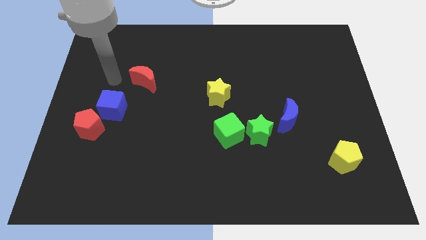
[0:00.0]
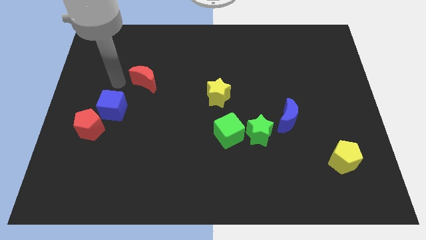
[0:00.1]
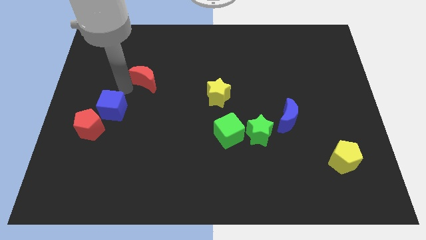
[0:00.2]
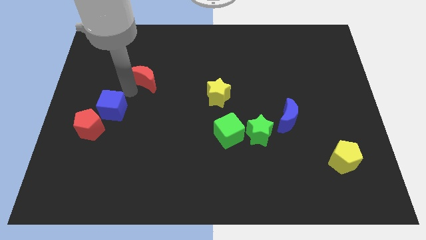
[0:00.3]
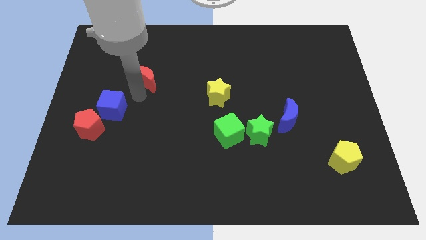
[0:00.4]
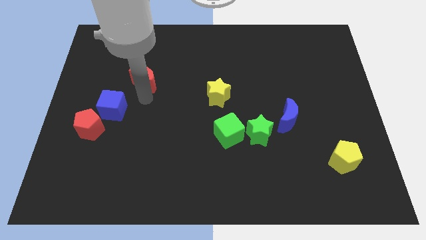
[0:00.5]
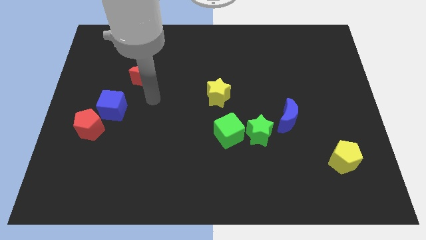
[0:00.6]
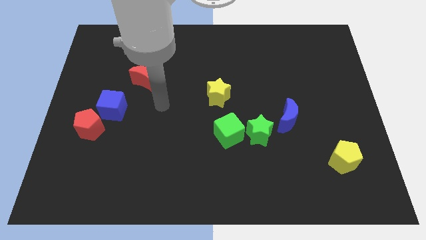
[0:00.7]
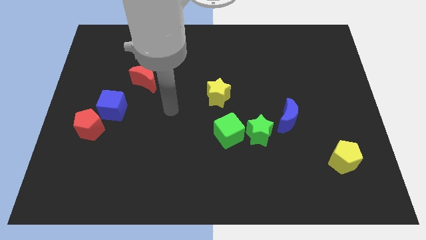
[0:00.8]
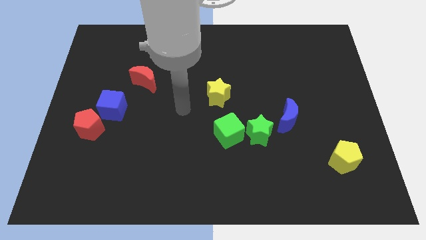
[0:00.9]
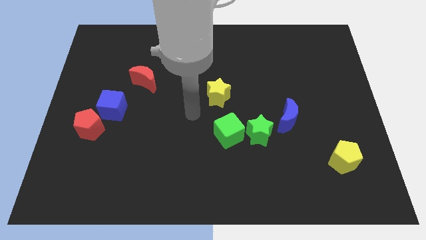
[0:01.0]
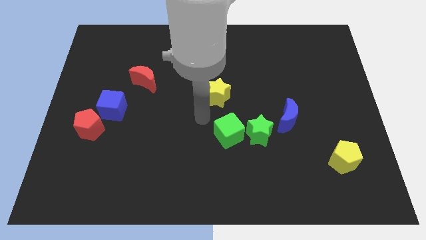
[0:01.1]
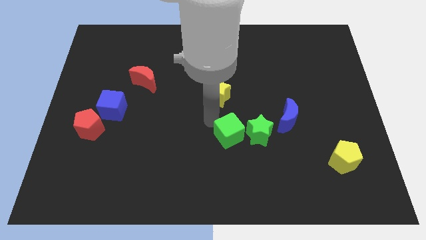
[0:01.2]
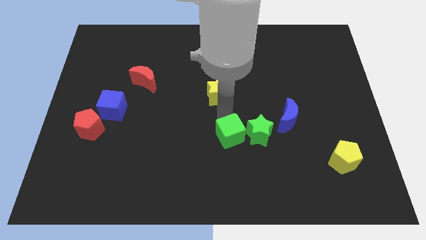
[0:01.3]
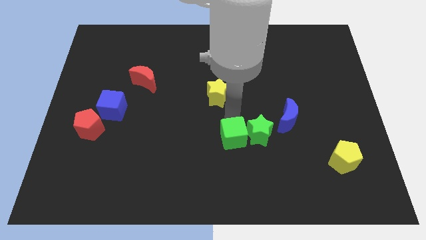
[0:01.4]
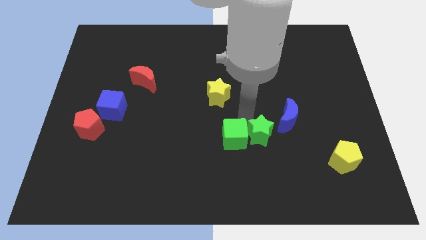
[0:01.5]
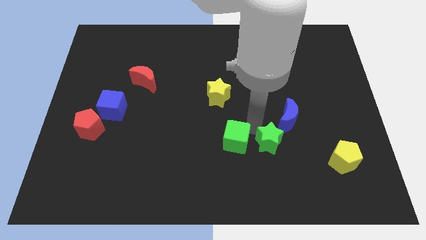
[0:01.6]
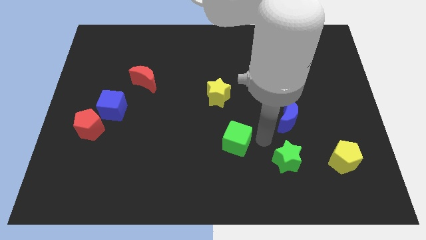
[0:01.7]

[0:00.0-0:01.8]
separate the green cube from the green star

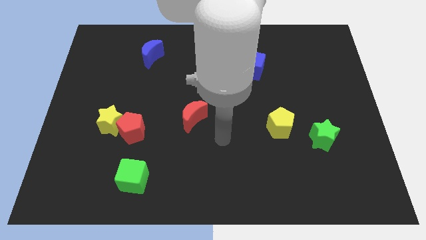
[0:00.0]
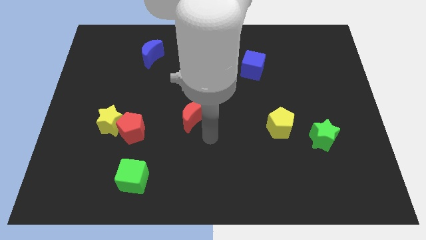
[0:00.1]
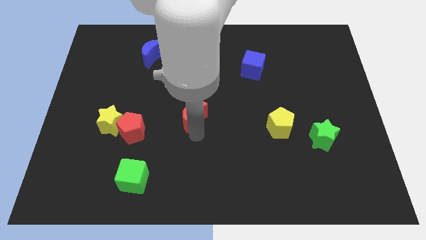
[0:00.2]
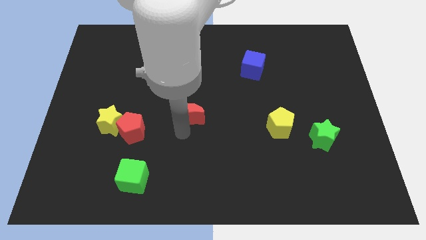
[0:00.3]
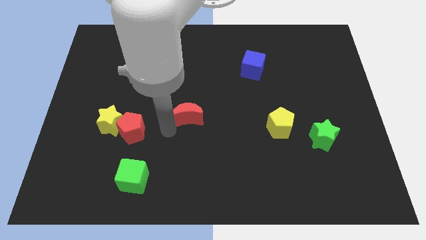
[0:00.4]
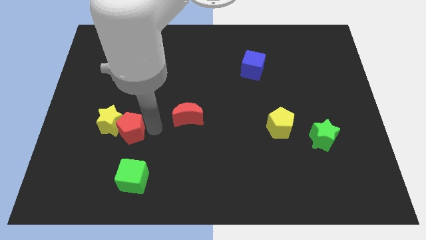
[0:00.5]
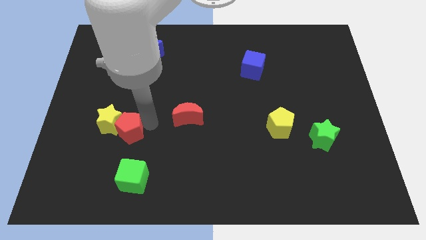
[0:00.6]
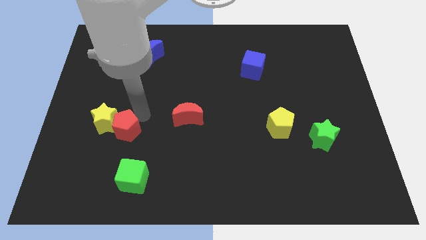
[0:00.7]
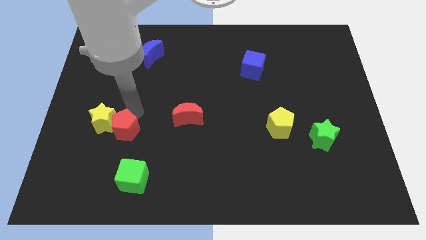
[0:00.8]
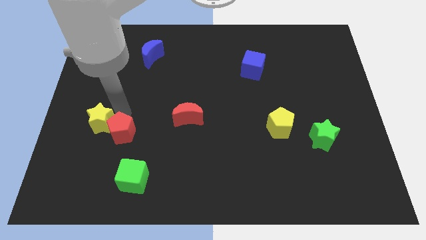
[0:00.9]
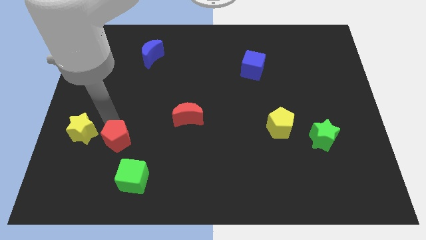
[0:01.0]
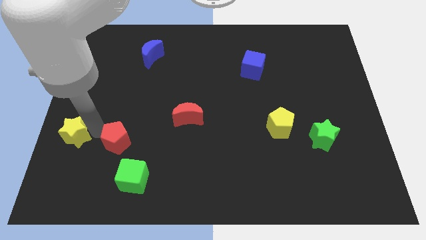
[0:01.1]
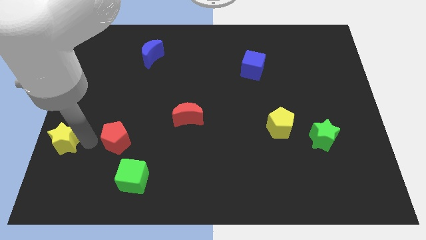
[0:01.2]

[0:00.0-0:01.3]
move the red pentagon away from the yellow star

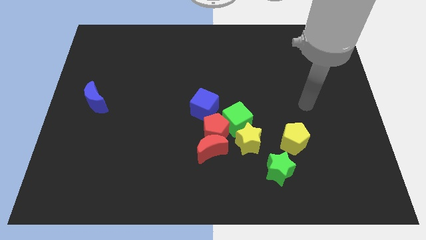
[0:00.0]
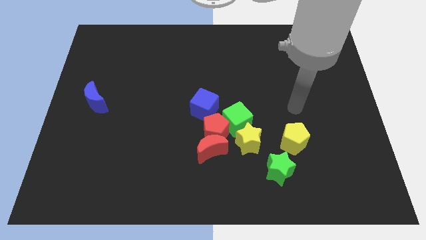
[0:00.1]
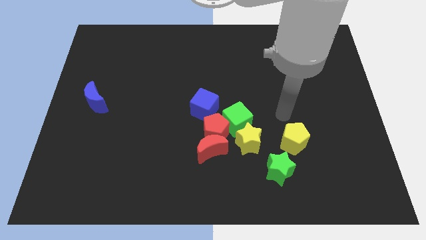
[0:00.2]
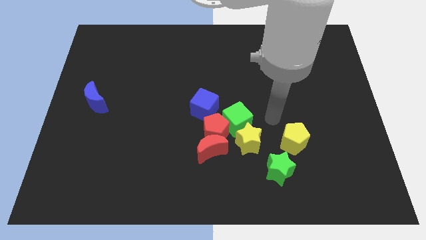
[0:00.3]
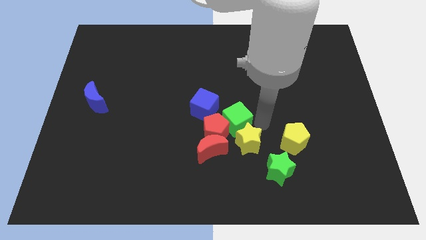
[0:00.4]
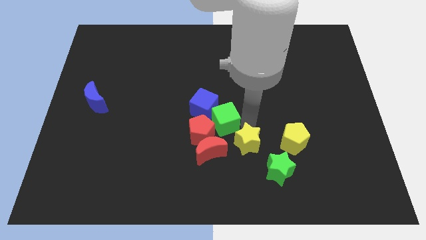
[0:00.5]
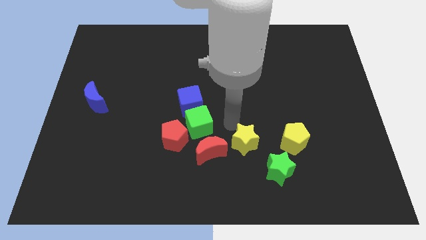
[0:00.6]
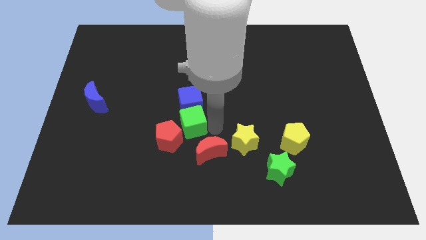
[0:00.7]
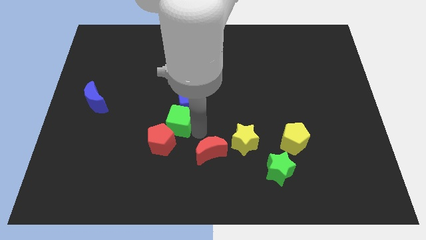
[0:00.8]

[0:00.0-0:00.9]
pull the red pentagon apart from the clump

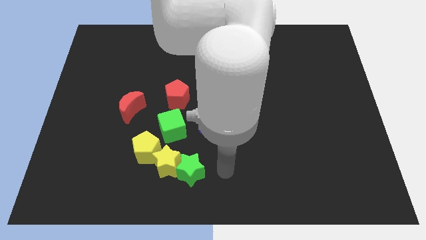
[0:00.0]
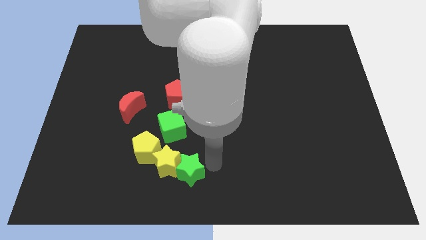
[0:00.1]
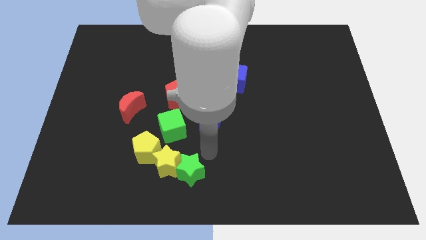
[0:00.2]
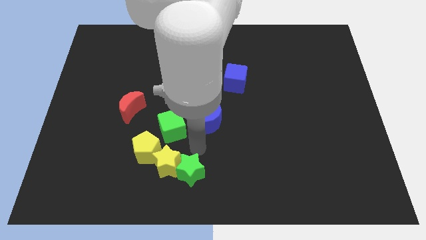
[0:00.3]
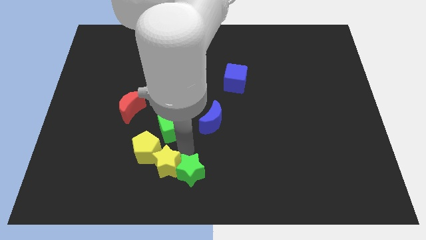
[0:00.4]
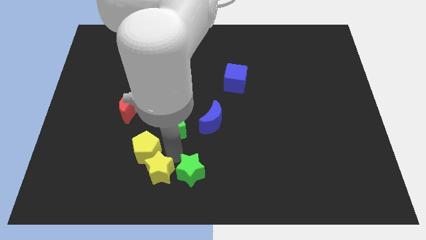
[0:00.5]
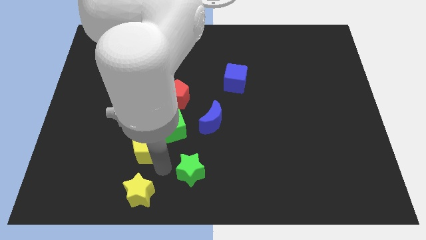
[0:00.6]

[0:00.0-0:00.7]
separate the green star from the yellow star

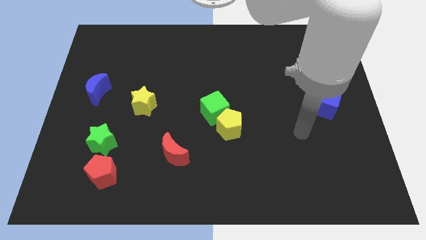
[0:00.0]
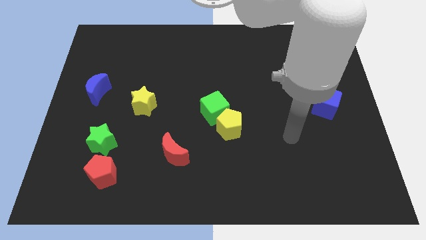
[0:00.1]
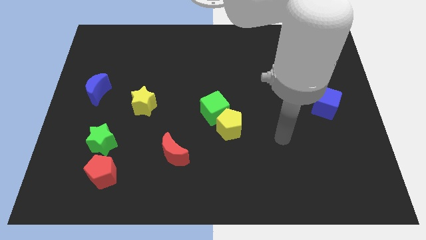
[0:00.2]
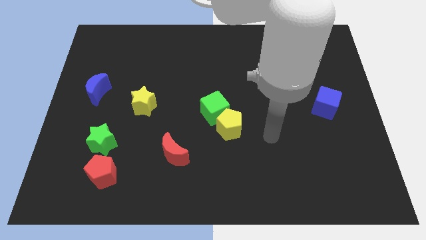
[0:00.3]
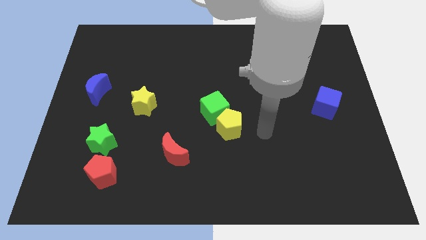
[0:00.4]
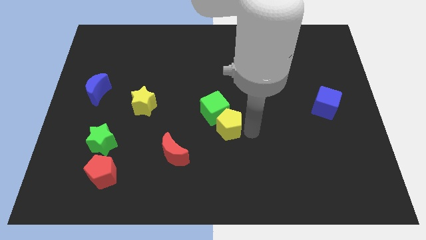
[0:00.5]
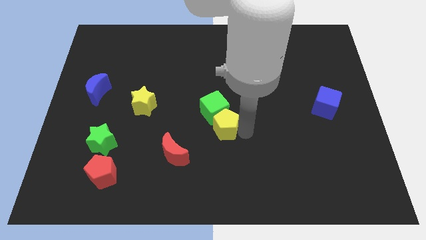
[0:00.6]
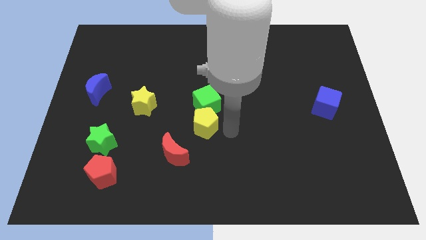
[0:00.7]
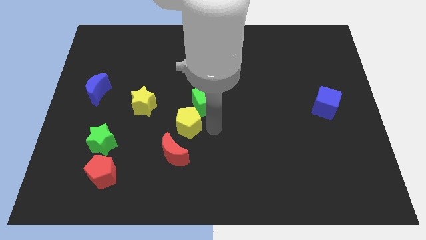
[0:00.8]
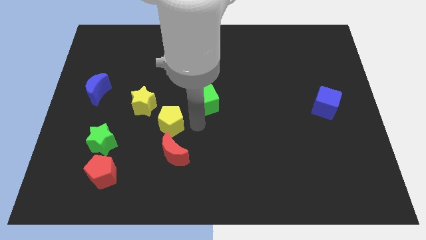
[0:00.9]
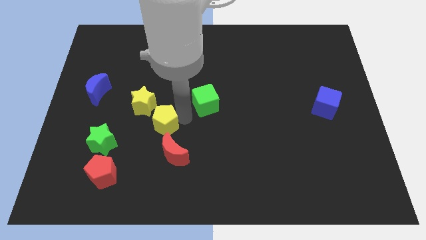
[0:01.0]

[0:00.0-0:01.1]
move the green cube away from the yellow pentagon

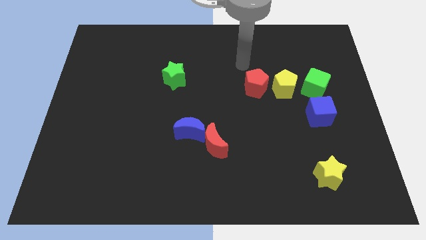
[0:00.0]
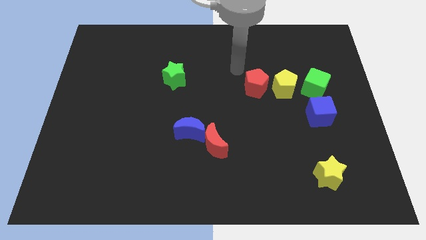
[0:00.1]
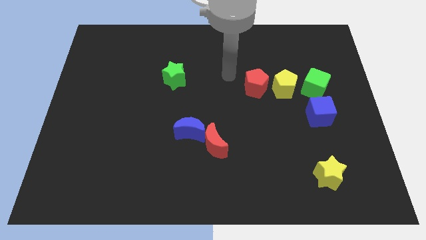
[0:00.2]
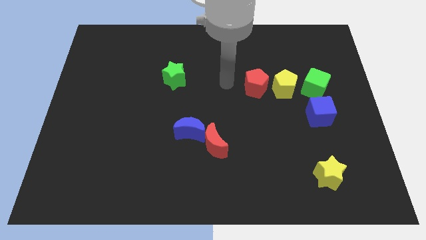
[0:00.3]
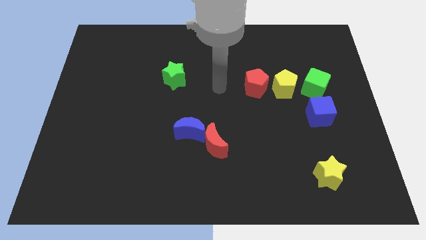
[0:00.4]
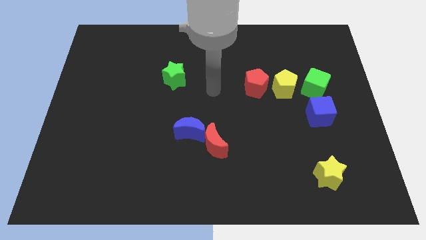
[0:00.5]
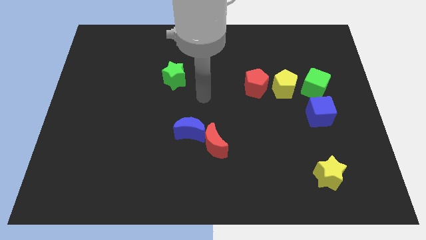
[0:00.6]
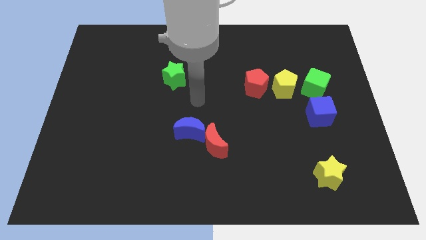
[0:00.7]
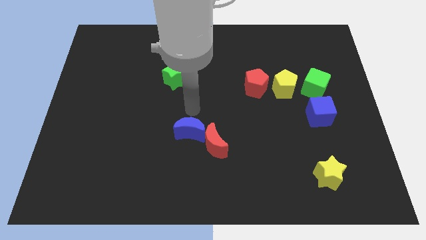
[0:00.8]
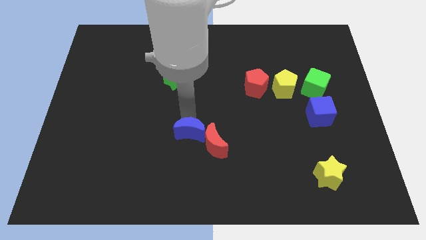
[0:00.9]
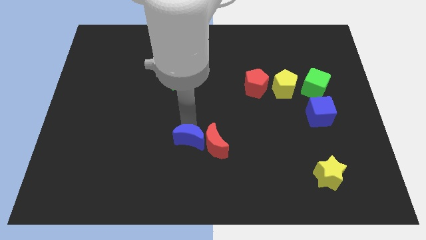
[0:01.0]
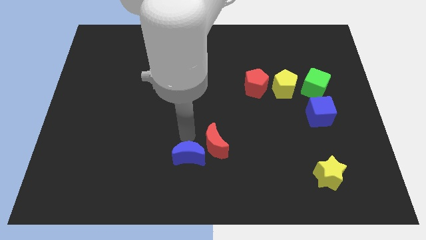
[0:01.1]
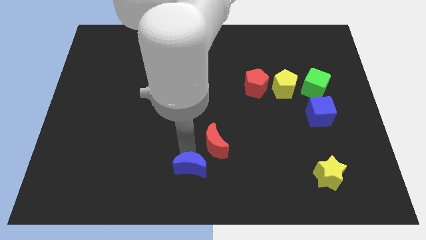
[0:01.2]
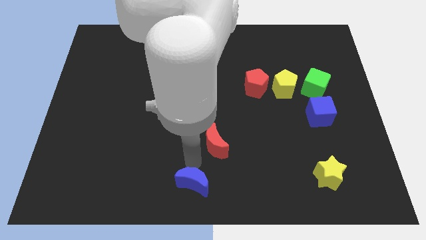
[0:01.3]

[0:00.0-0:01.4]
move the red moon away from the blue moon

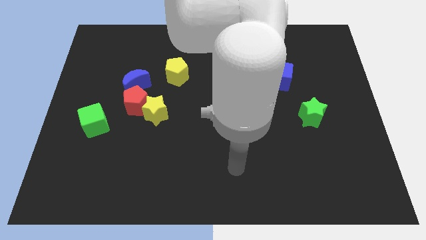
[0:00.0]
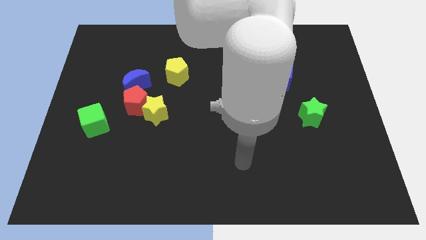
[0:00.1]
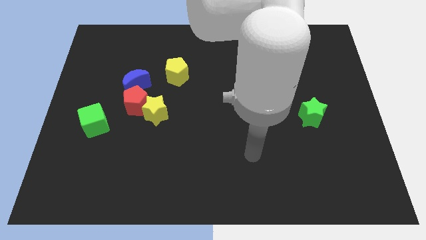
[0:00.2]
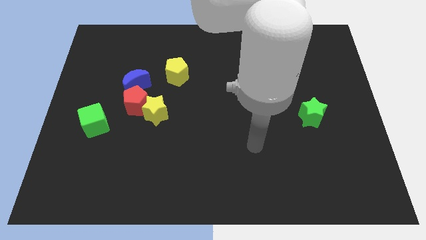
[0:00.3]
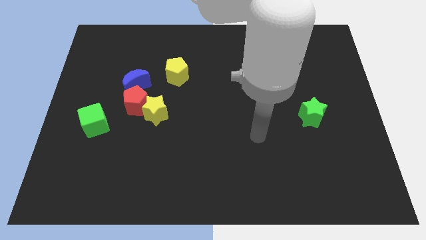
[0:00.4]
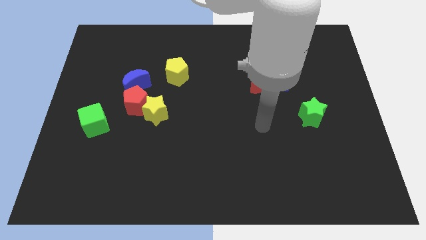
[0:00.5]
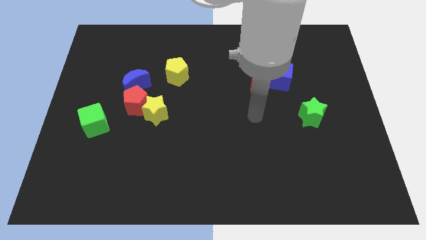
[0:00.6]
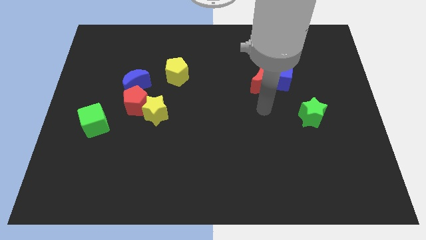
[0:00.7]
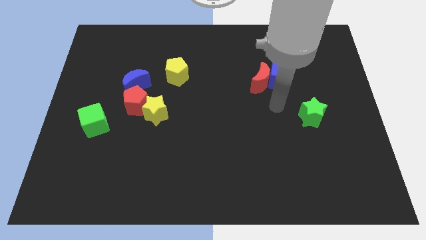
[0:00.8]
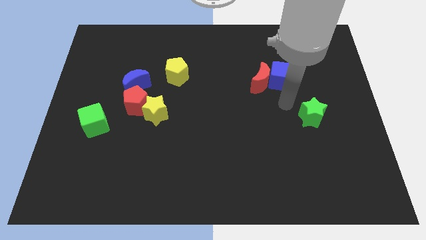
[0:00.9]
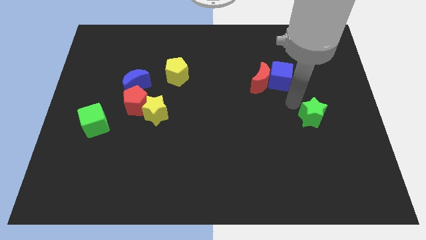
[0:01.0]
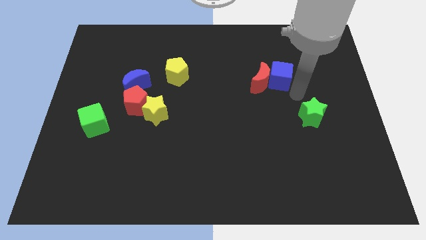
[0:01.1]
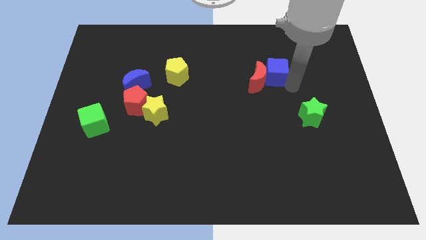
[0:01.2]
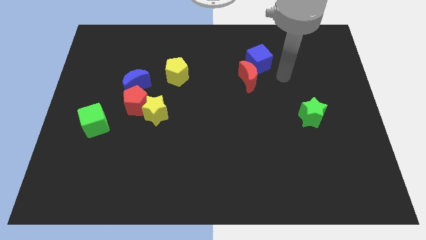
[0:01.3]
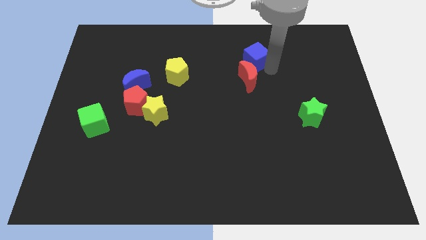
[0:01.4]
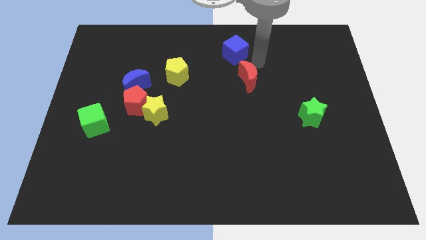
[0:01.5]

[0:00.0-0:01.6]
move the red moon away from the blue cube

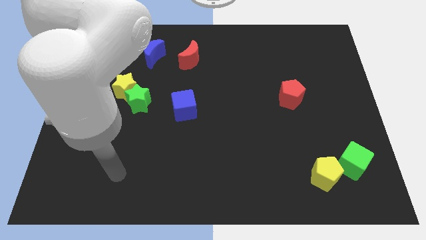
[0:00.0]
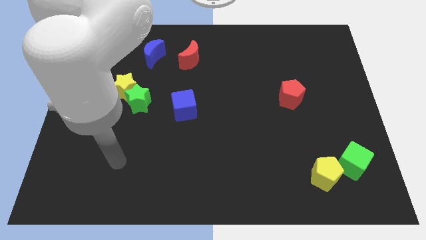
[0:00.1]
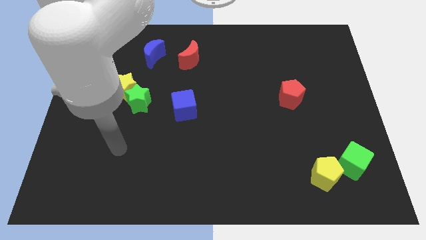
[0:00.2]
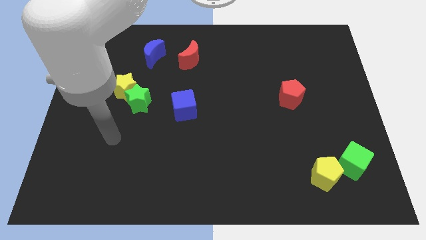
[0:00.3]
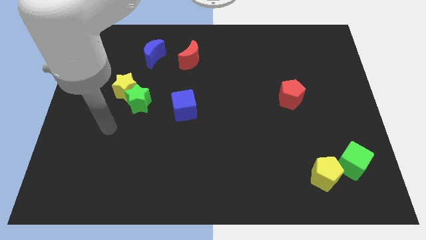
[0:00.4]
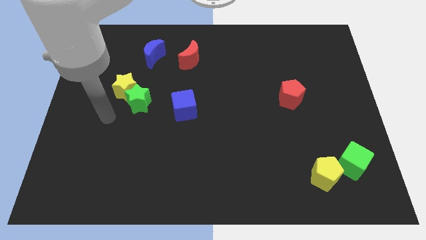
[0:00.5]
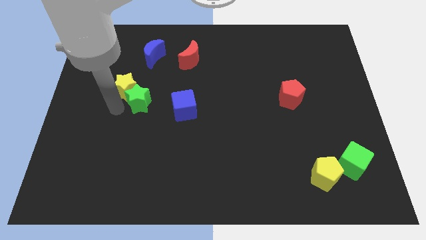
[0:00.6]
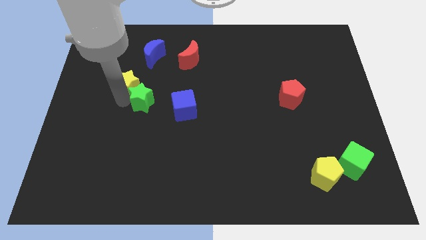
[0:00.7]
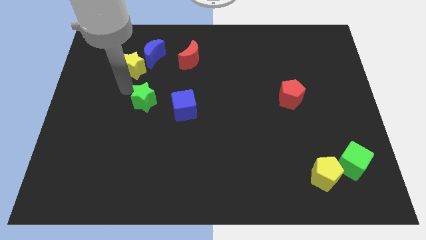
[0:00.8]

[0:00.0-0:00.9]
pull the green star apart from the yellow star
